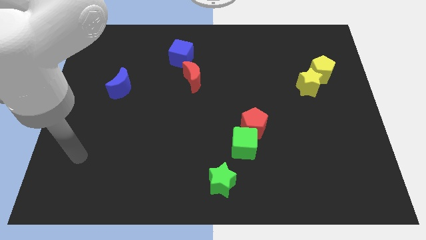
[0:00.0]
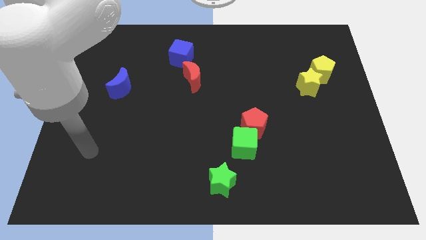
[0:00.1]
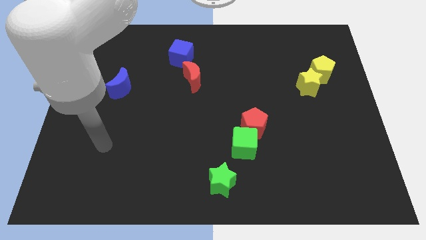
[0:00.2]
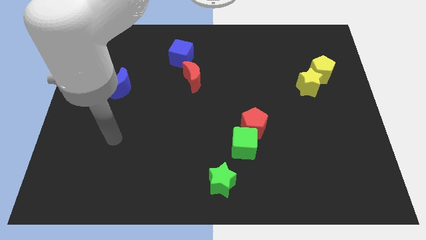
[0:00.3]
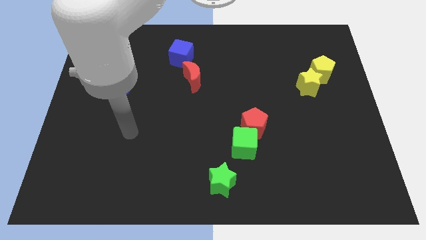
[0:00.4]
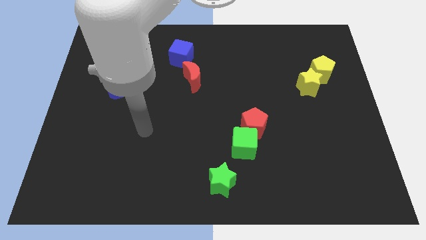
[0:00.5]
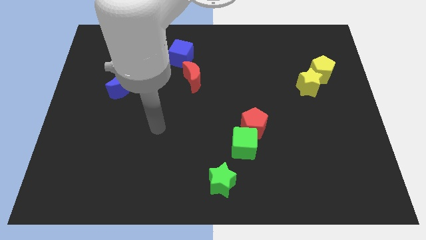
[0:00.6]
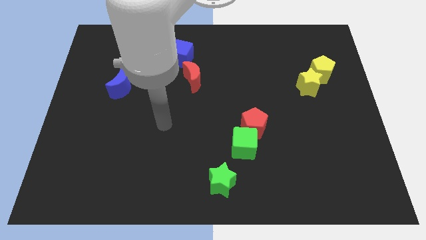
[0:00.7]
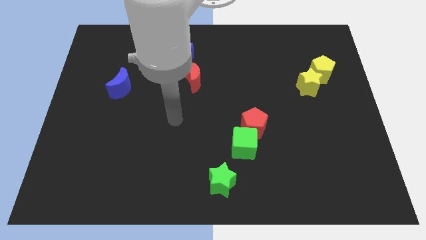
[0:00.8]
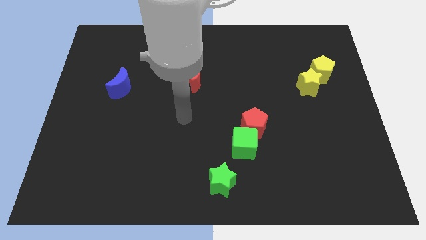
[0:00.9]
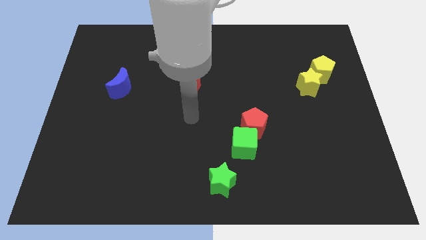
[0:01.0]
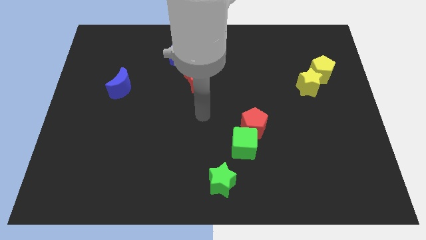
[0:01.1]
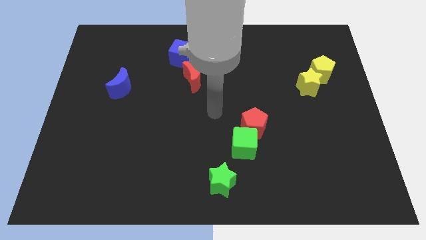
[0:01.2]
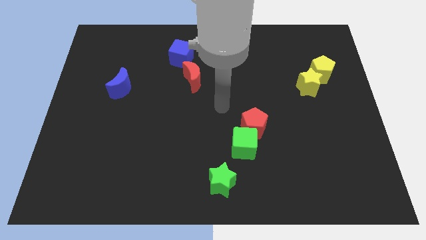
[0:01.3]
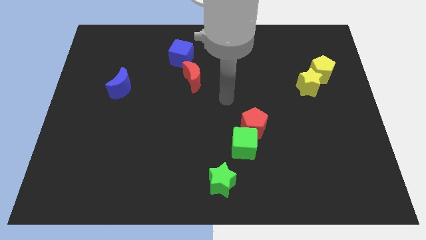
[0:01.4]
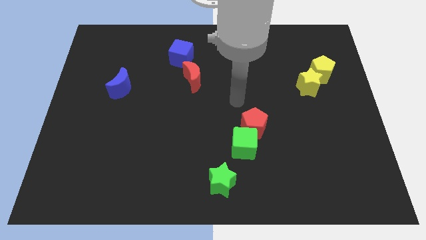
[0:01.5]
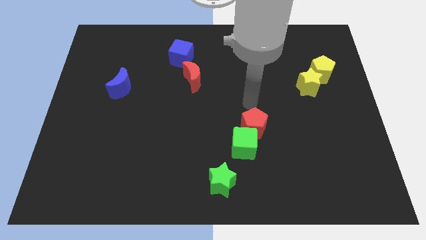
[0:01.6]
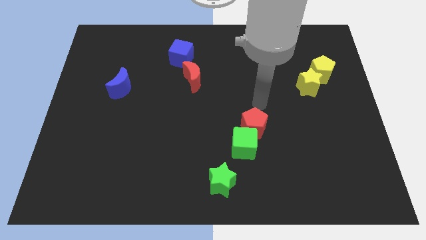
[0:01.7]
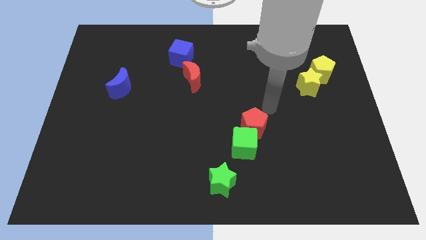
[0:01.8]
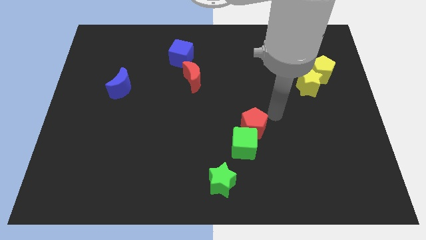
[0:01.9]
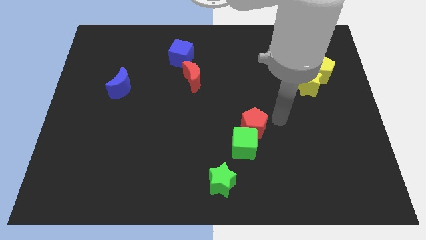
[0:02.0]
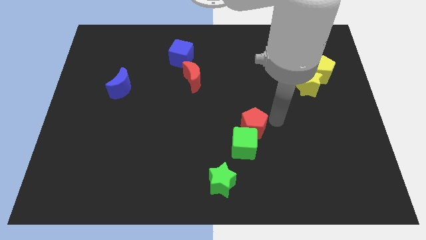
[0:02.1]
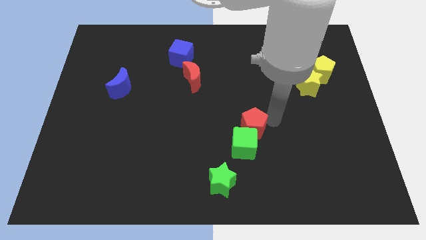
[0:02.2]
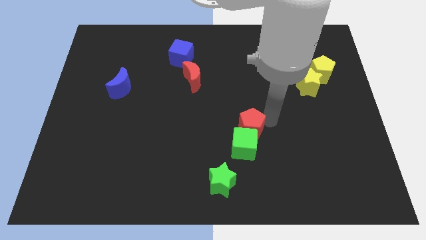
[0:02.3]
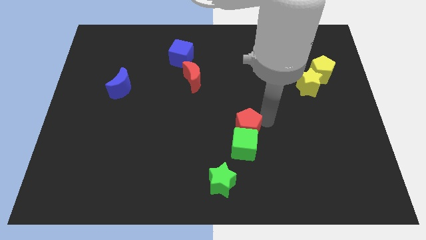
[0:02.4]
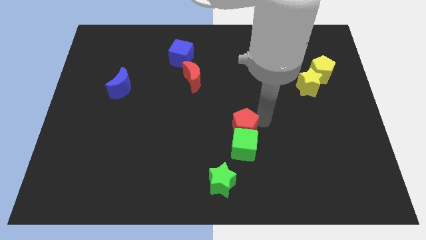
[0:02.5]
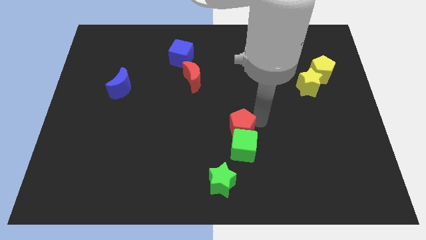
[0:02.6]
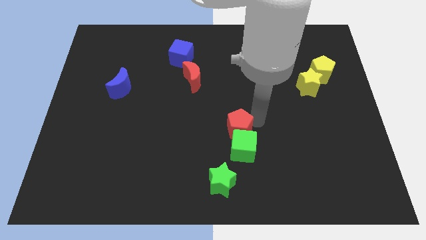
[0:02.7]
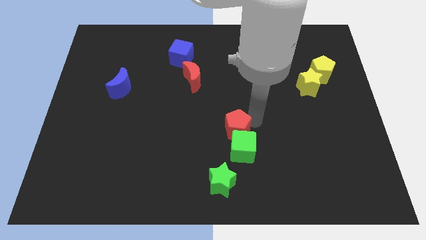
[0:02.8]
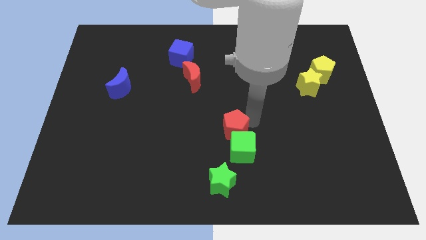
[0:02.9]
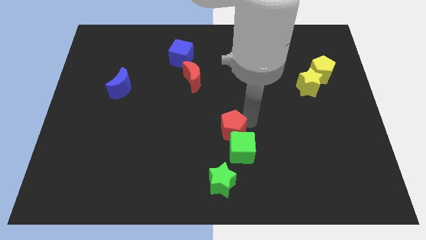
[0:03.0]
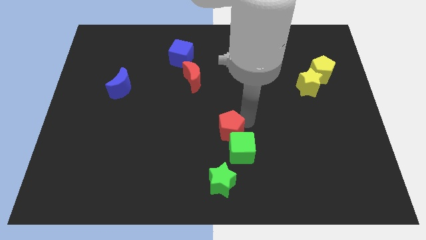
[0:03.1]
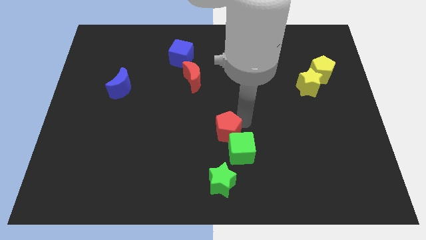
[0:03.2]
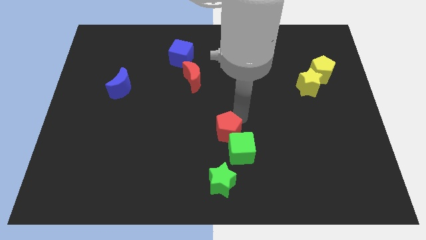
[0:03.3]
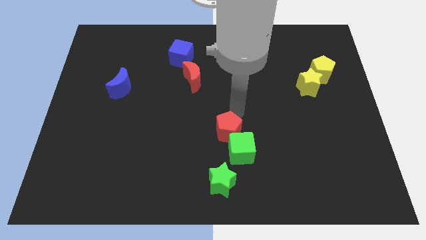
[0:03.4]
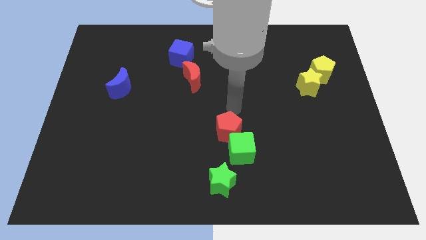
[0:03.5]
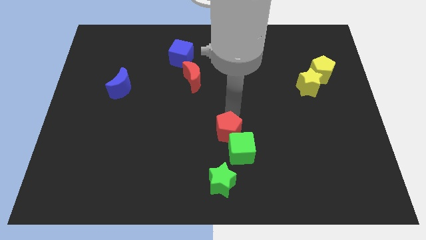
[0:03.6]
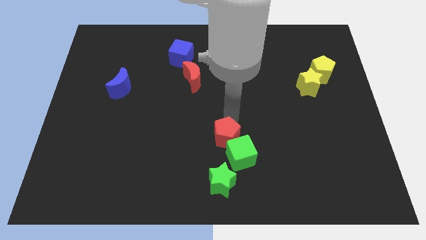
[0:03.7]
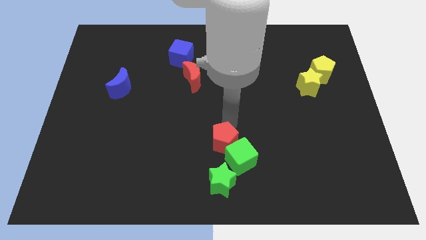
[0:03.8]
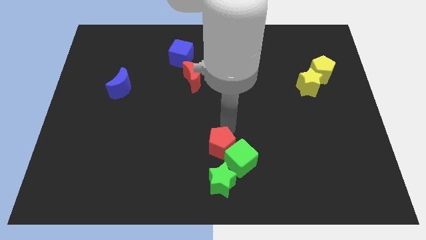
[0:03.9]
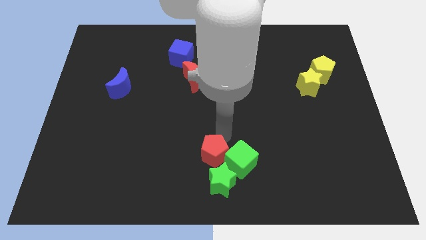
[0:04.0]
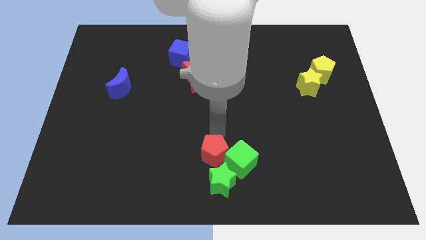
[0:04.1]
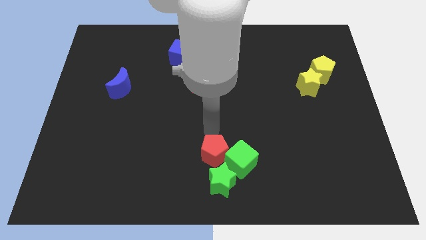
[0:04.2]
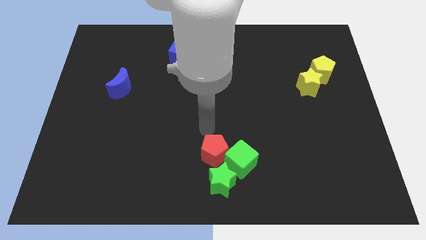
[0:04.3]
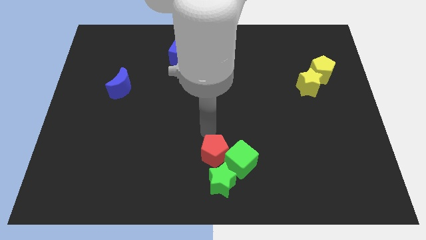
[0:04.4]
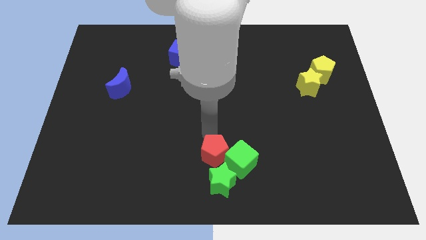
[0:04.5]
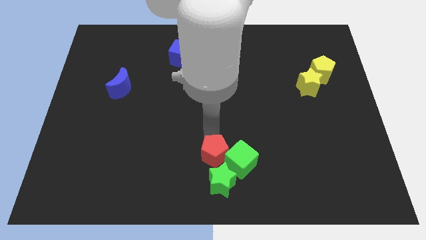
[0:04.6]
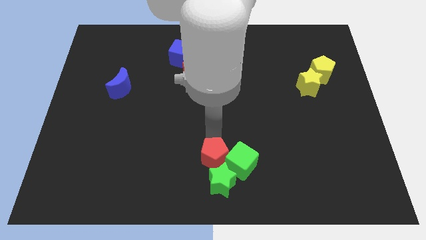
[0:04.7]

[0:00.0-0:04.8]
push the red pentagon to the green star

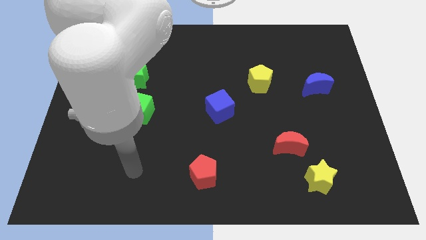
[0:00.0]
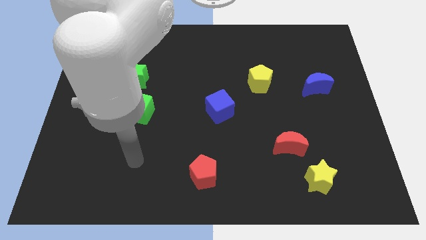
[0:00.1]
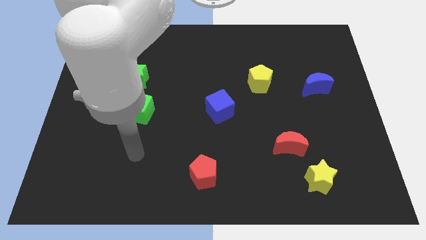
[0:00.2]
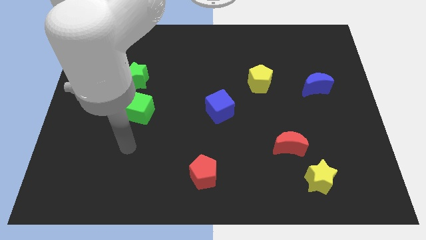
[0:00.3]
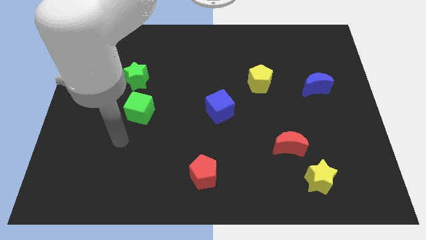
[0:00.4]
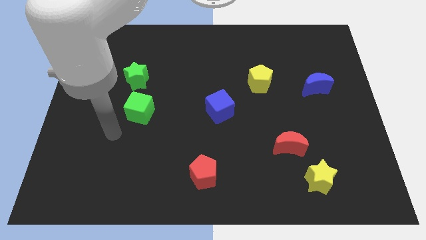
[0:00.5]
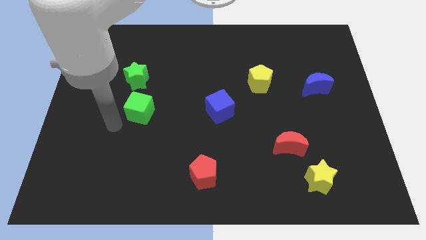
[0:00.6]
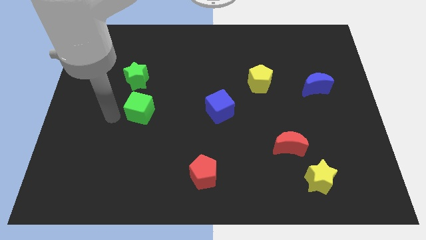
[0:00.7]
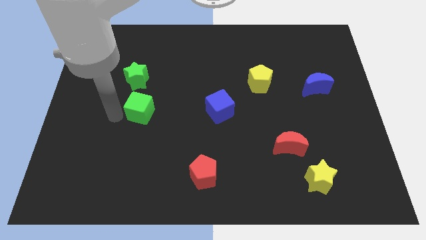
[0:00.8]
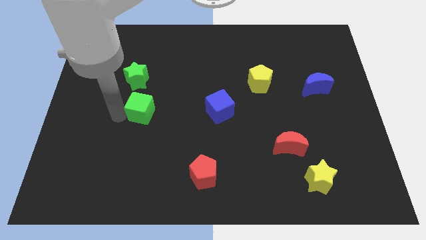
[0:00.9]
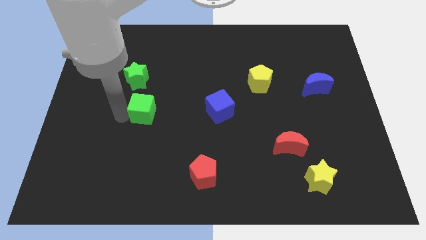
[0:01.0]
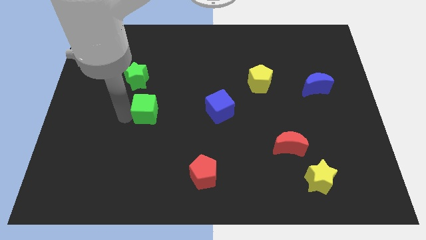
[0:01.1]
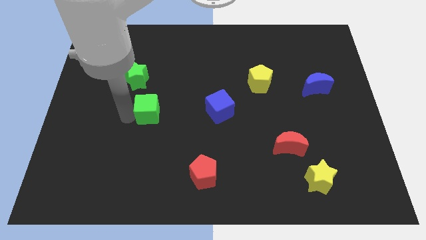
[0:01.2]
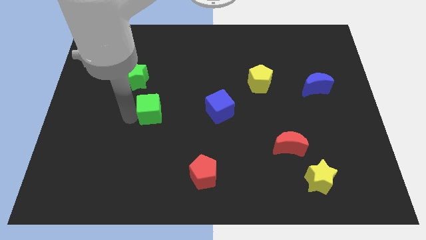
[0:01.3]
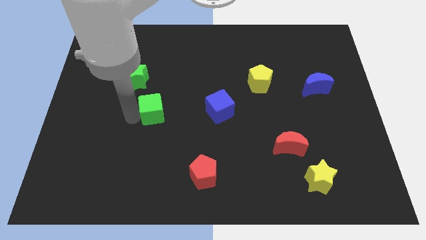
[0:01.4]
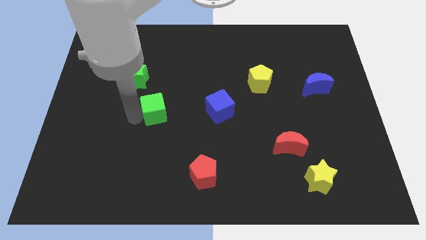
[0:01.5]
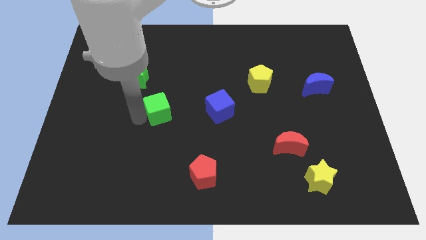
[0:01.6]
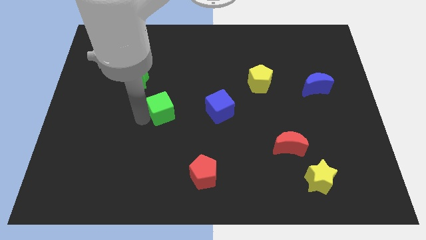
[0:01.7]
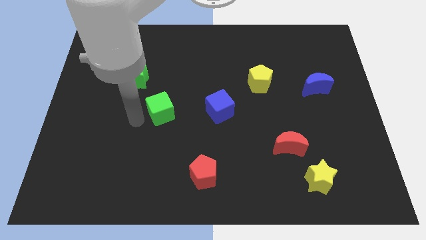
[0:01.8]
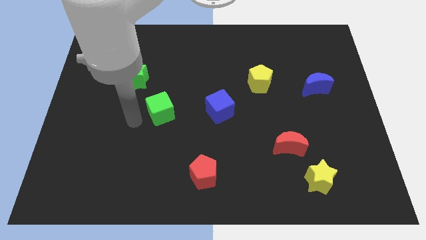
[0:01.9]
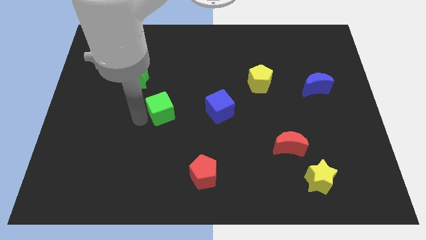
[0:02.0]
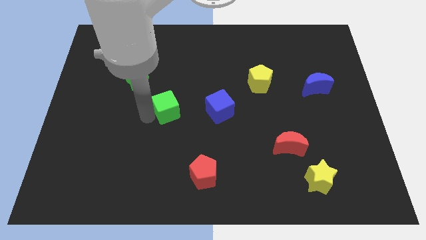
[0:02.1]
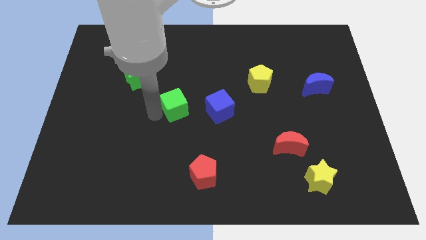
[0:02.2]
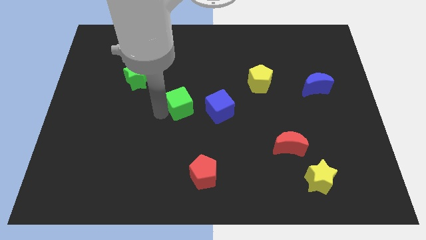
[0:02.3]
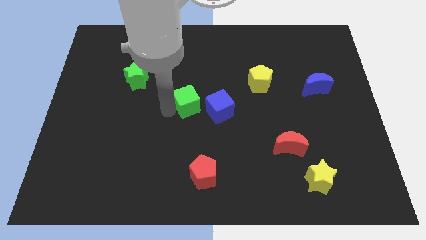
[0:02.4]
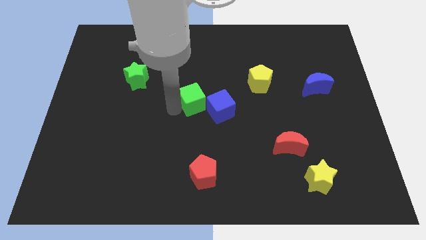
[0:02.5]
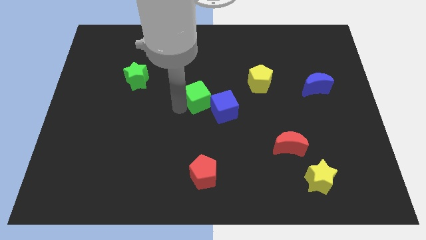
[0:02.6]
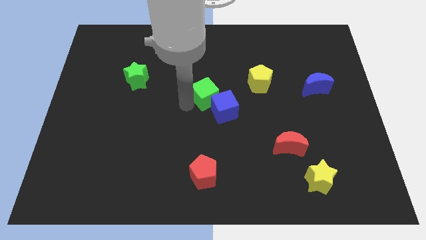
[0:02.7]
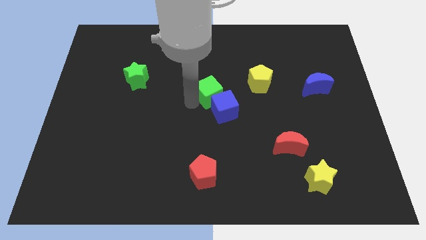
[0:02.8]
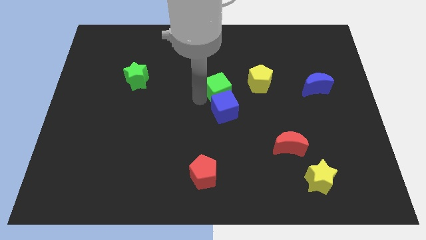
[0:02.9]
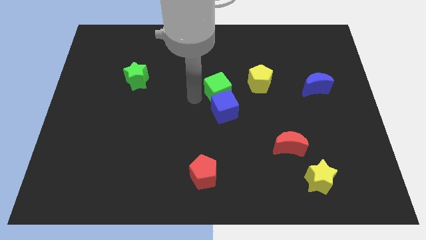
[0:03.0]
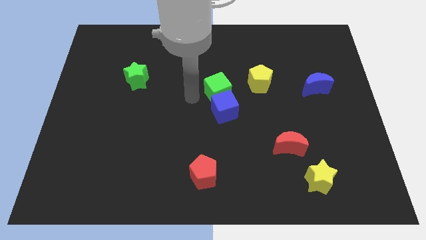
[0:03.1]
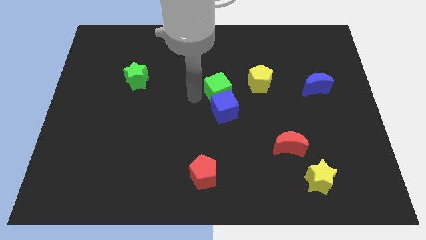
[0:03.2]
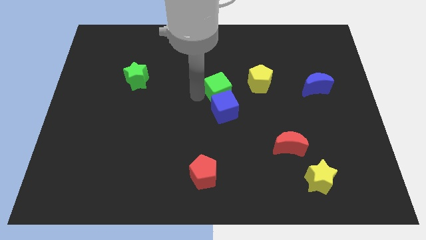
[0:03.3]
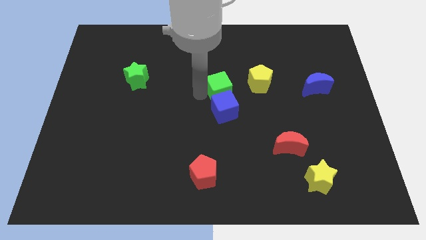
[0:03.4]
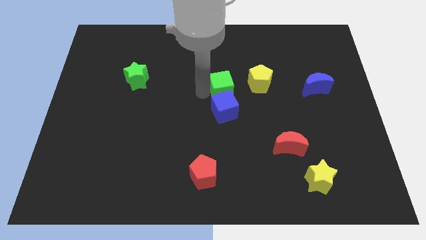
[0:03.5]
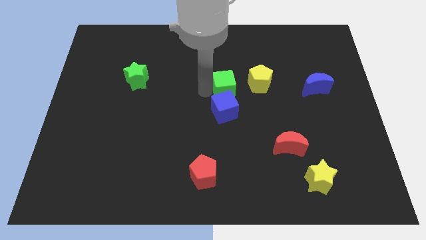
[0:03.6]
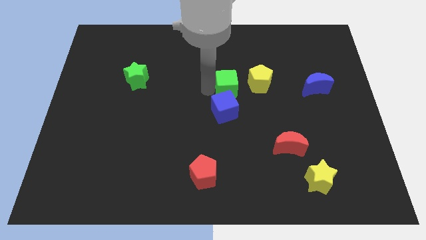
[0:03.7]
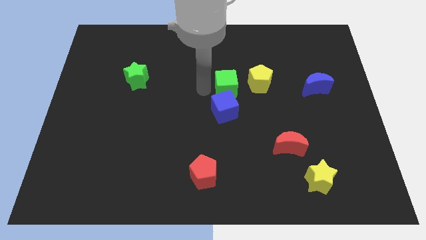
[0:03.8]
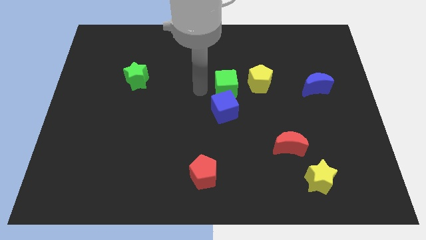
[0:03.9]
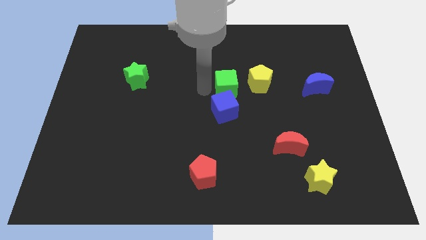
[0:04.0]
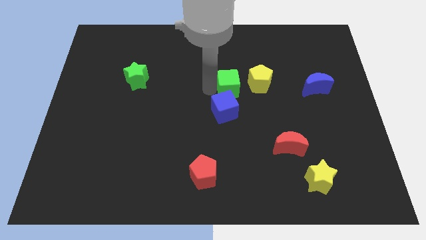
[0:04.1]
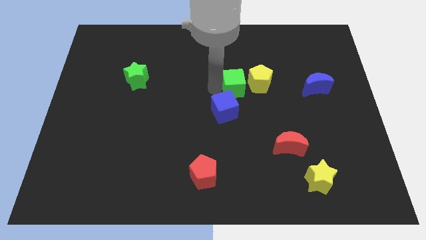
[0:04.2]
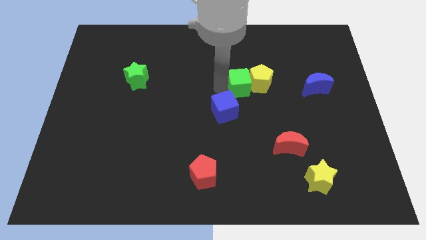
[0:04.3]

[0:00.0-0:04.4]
put the green cube towards the yellow pentagon
